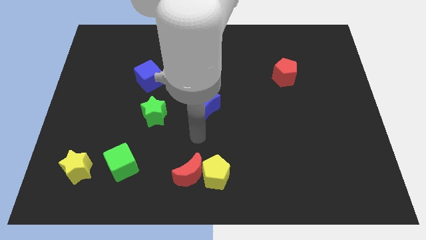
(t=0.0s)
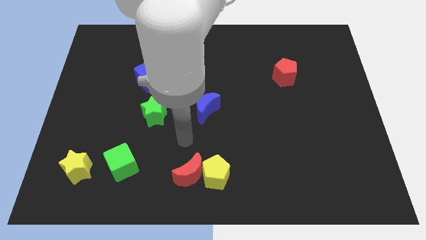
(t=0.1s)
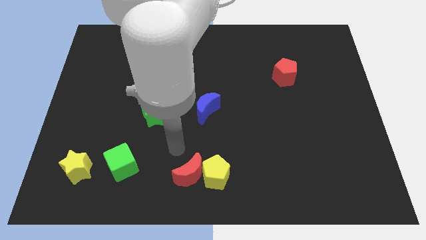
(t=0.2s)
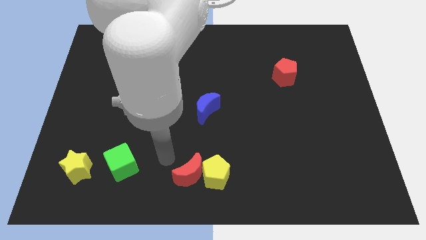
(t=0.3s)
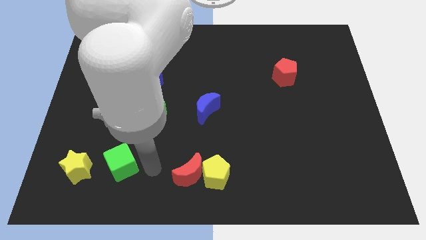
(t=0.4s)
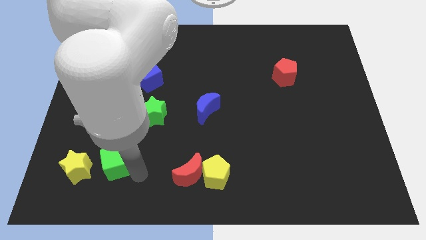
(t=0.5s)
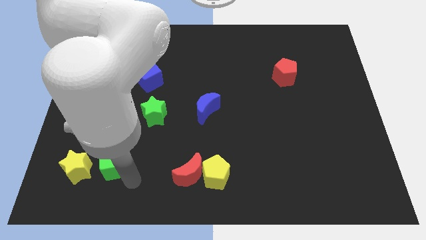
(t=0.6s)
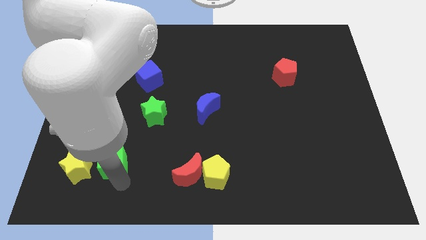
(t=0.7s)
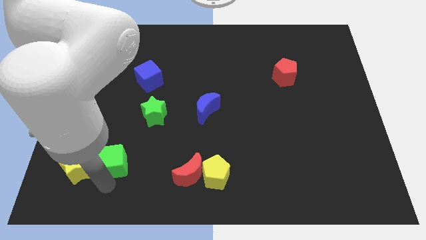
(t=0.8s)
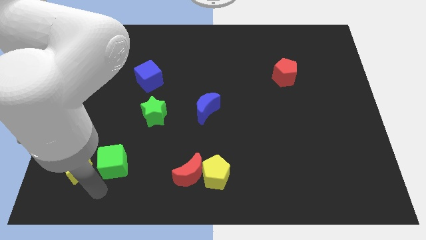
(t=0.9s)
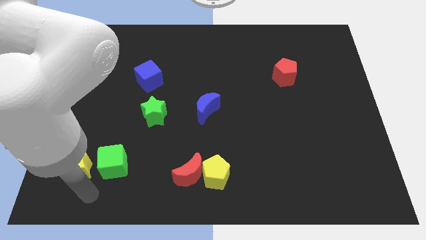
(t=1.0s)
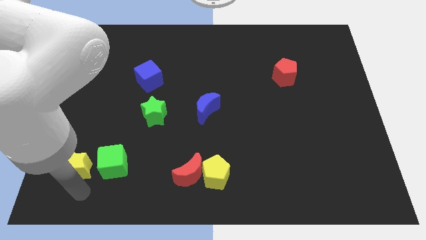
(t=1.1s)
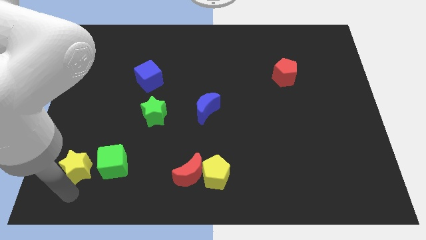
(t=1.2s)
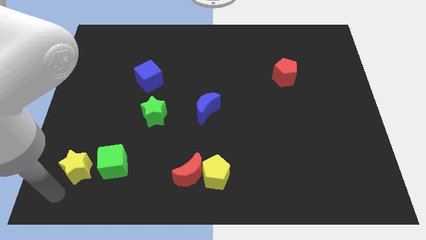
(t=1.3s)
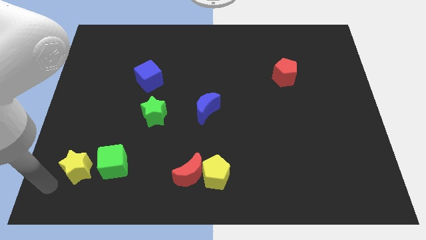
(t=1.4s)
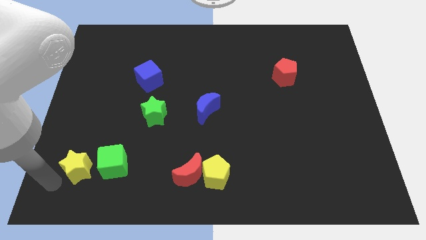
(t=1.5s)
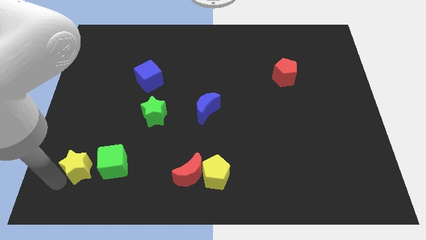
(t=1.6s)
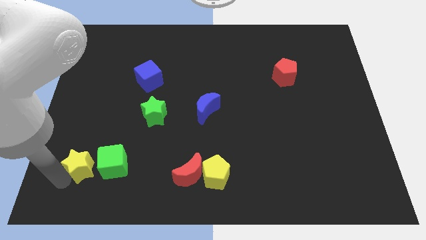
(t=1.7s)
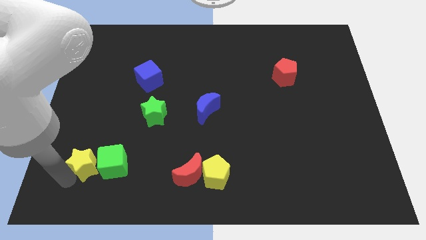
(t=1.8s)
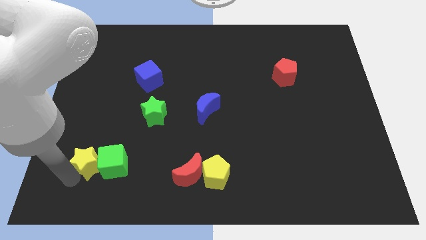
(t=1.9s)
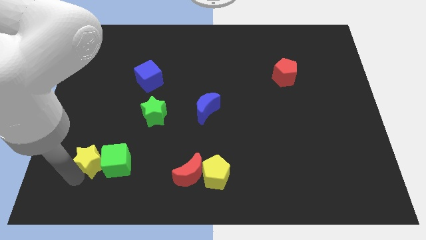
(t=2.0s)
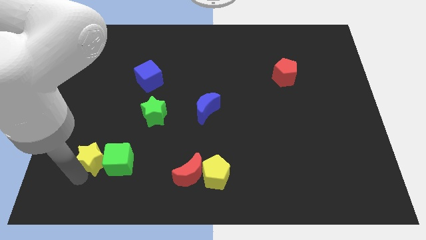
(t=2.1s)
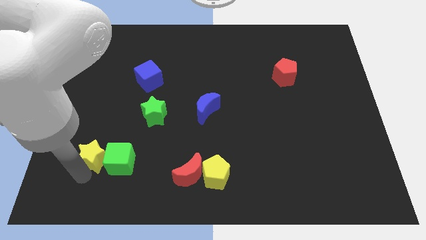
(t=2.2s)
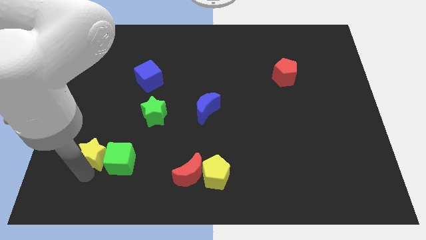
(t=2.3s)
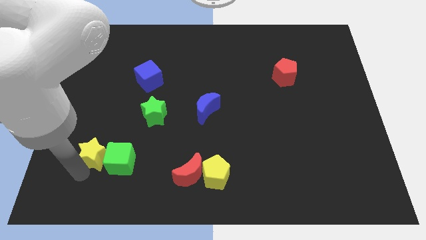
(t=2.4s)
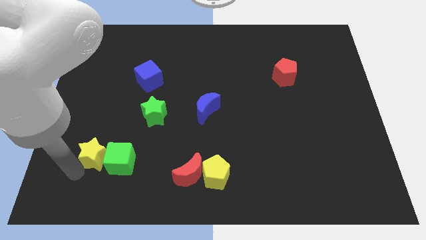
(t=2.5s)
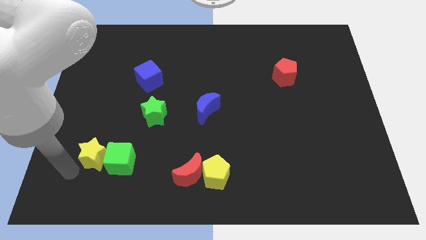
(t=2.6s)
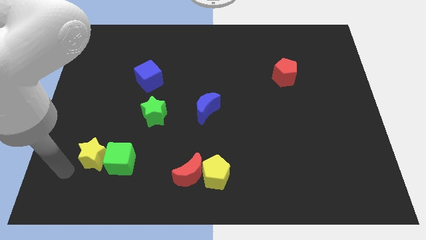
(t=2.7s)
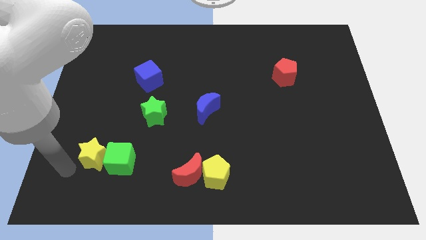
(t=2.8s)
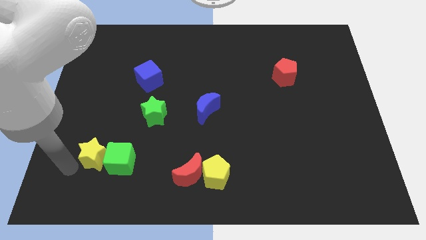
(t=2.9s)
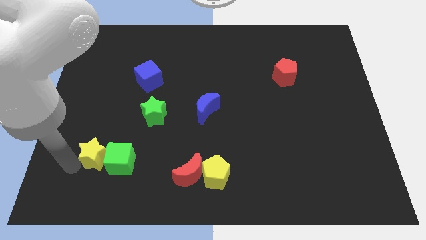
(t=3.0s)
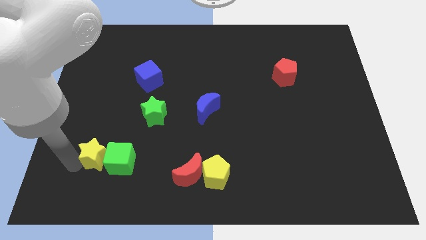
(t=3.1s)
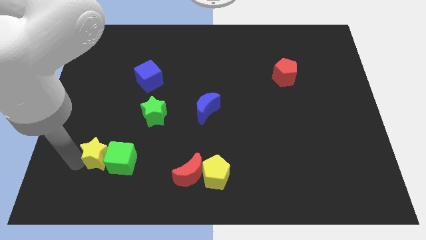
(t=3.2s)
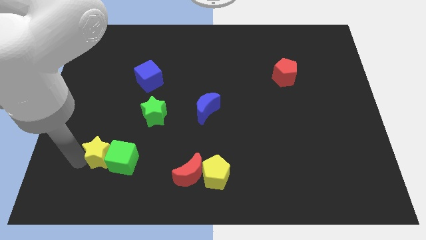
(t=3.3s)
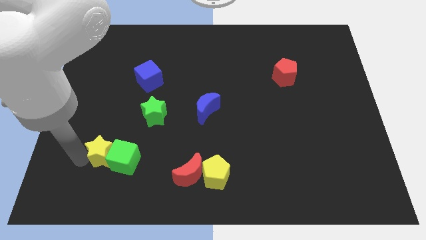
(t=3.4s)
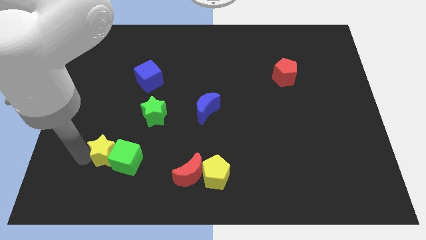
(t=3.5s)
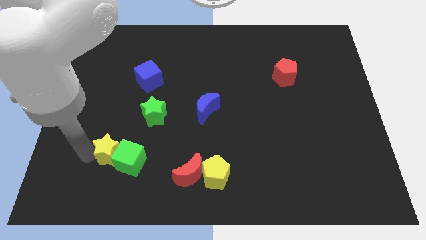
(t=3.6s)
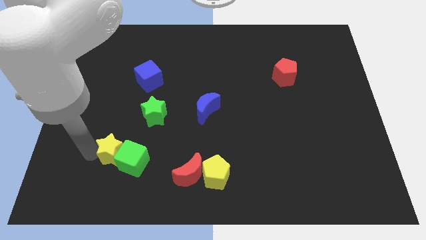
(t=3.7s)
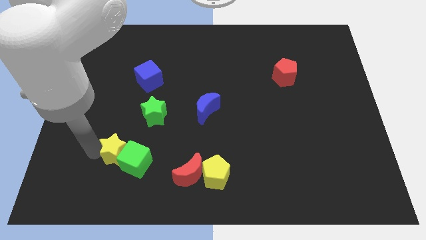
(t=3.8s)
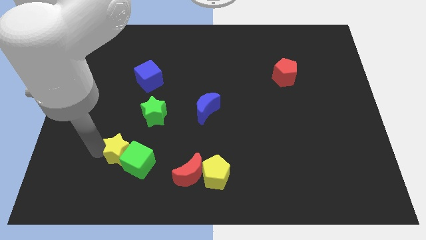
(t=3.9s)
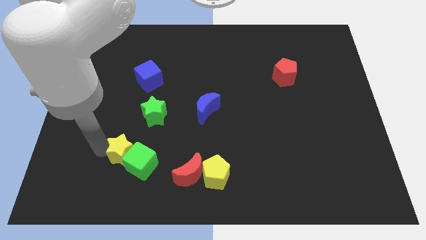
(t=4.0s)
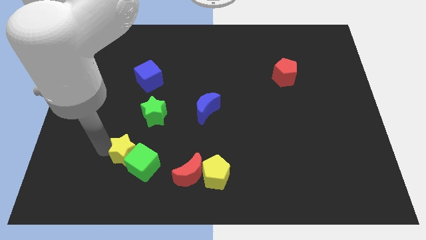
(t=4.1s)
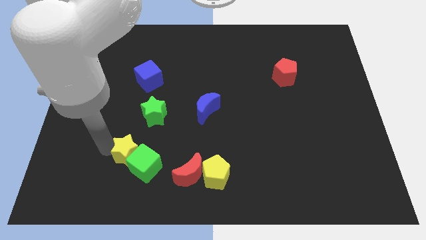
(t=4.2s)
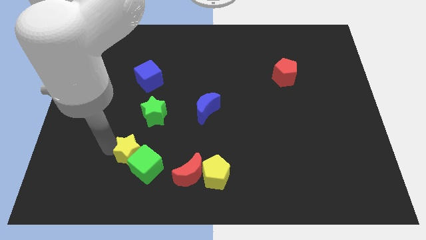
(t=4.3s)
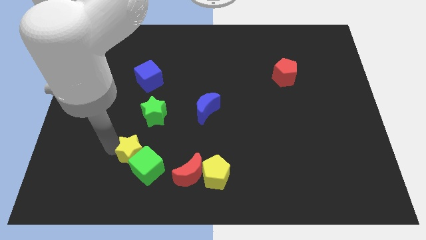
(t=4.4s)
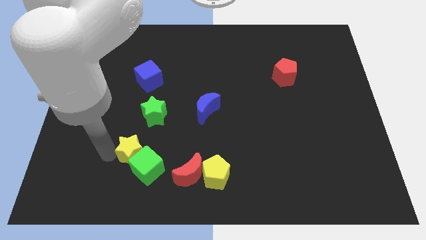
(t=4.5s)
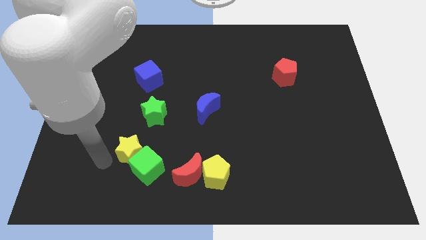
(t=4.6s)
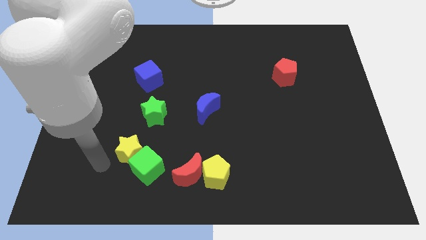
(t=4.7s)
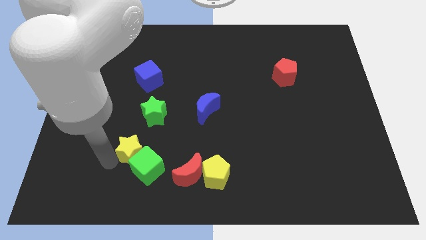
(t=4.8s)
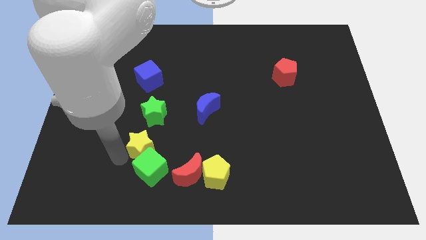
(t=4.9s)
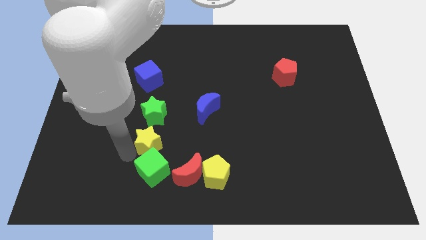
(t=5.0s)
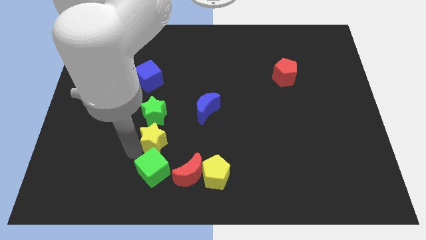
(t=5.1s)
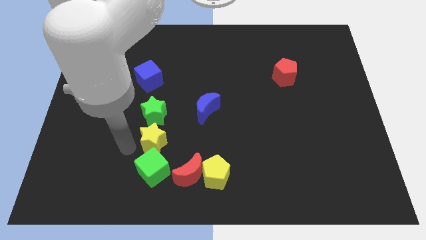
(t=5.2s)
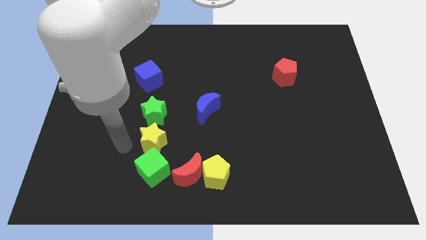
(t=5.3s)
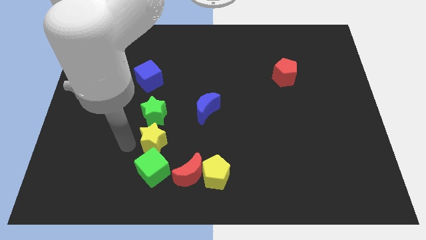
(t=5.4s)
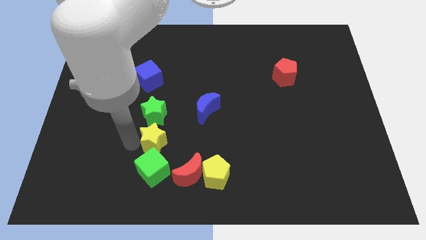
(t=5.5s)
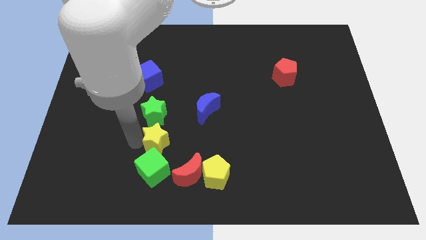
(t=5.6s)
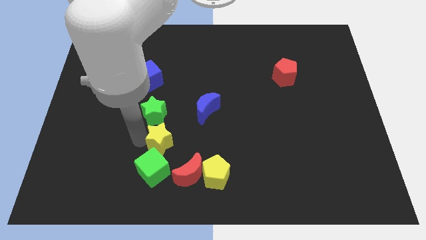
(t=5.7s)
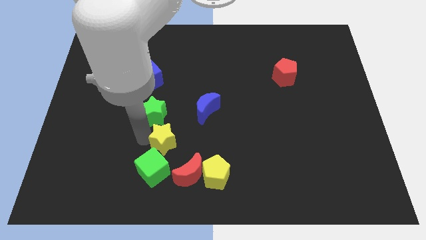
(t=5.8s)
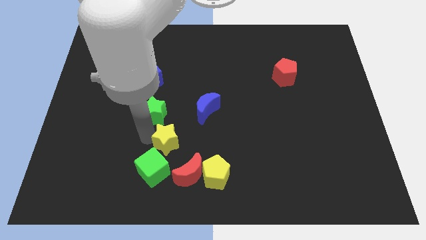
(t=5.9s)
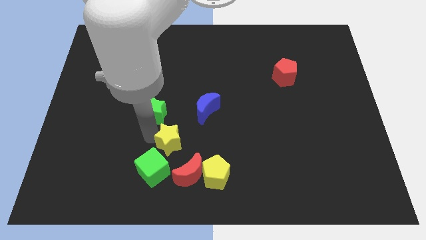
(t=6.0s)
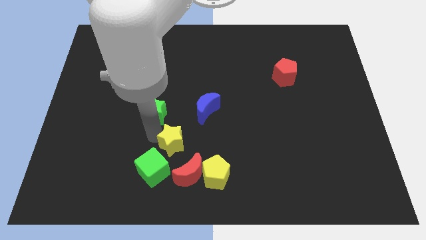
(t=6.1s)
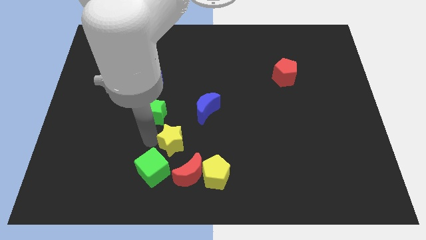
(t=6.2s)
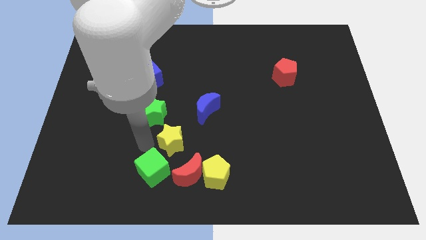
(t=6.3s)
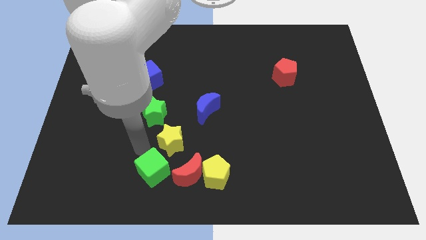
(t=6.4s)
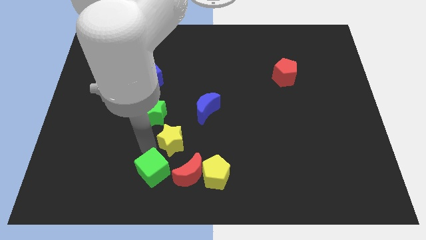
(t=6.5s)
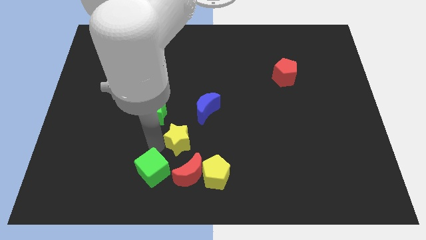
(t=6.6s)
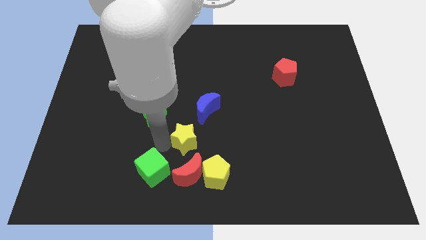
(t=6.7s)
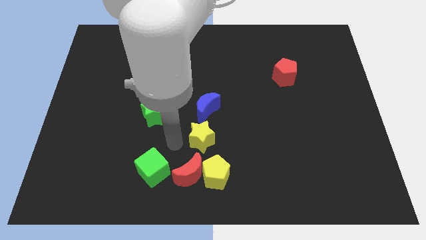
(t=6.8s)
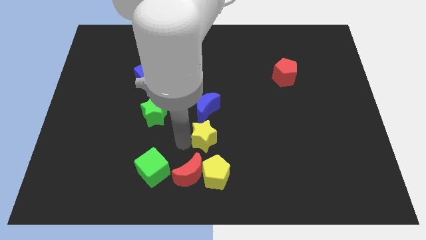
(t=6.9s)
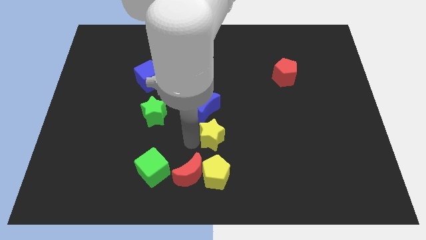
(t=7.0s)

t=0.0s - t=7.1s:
push the yellow star diagonally down and to the right of the blue moon
